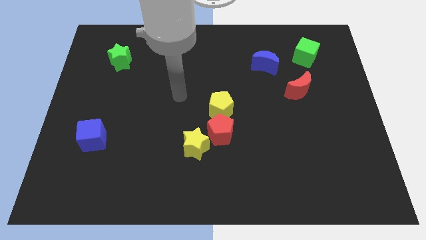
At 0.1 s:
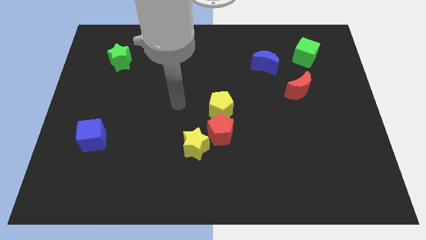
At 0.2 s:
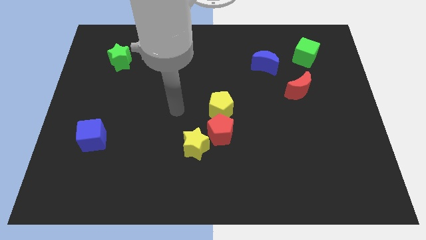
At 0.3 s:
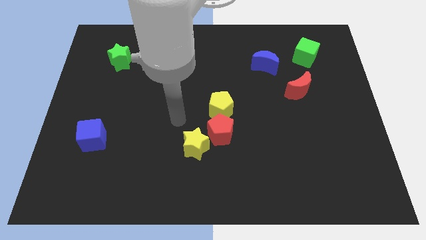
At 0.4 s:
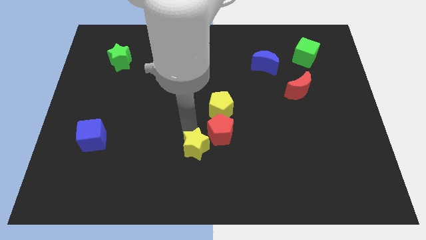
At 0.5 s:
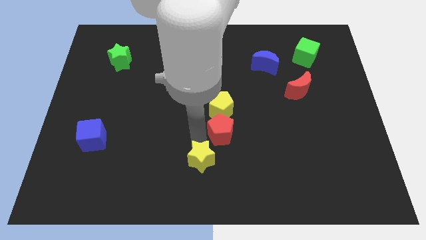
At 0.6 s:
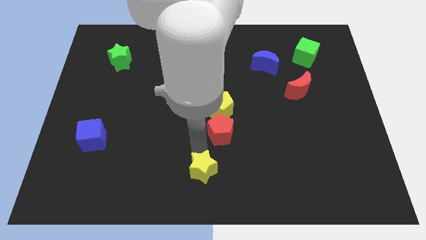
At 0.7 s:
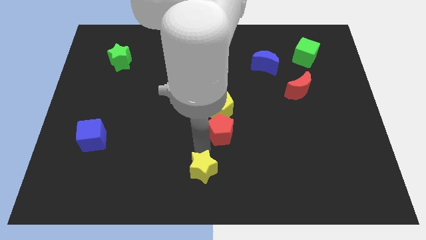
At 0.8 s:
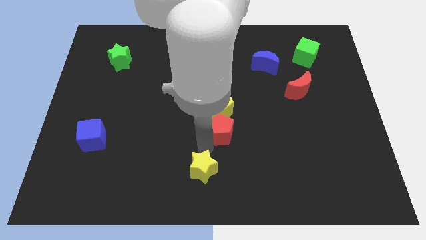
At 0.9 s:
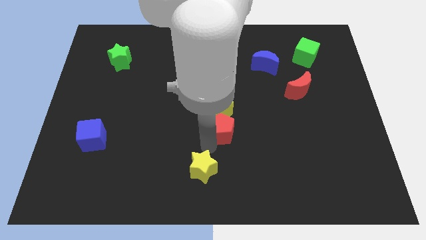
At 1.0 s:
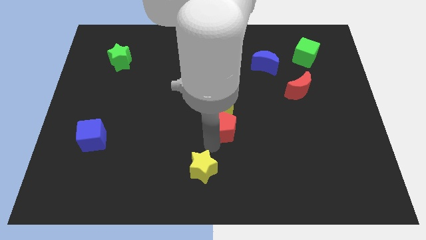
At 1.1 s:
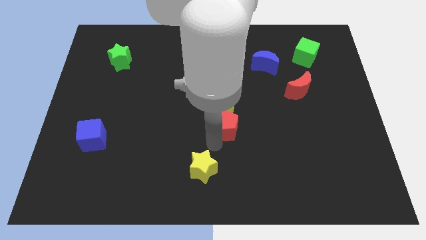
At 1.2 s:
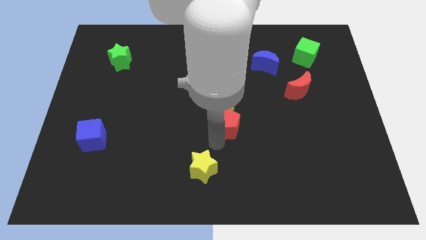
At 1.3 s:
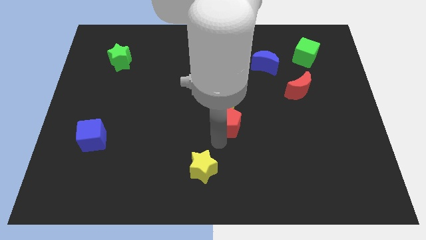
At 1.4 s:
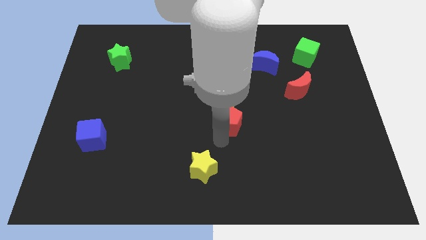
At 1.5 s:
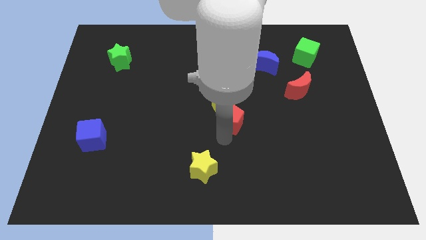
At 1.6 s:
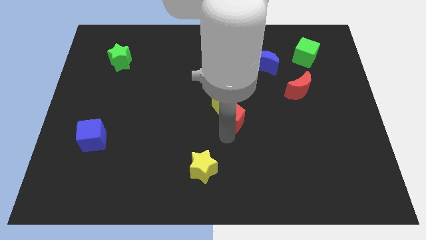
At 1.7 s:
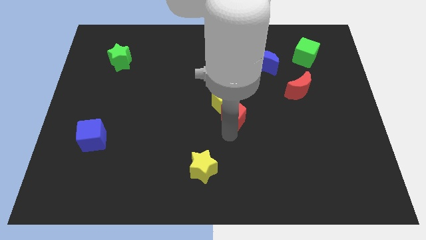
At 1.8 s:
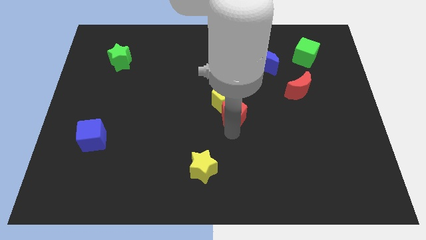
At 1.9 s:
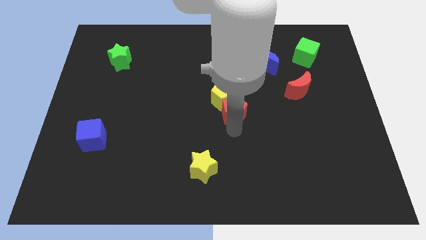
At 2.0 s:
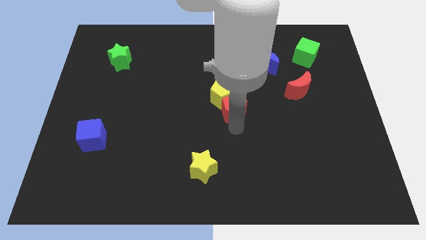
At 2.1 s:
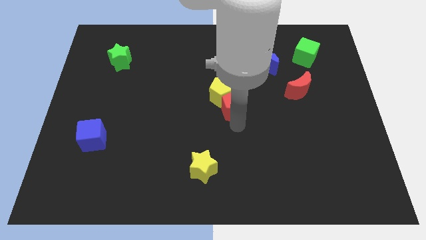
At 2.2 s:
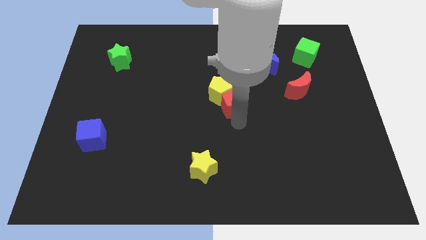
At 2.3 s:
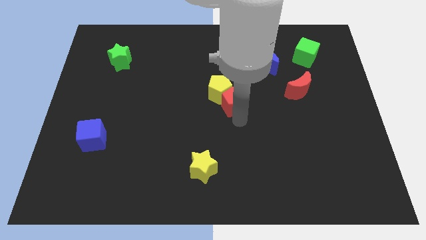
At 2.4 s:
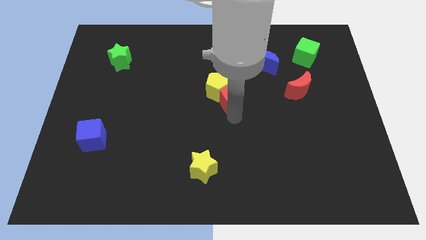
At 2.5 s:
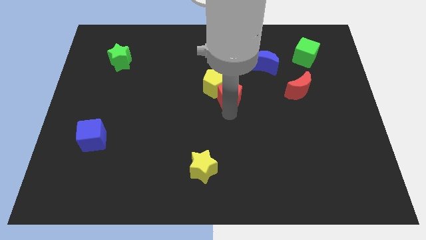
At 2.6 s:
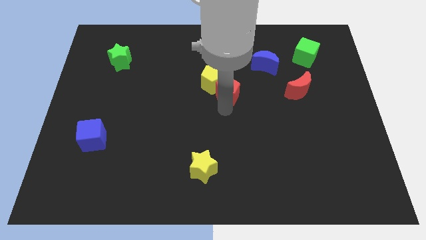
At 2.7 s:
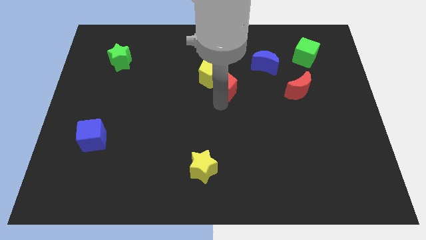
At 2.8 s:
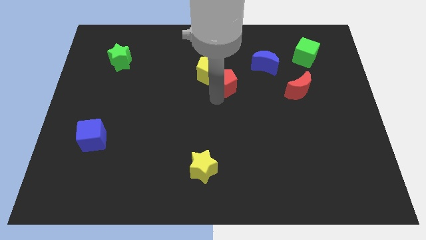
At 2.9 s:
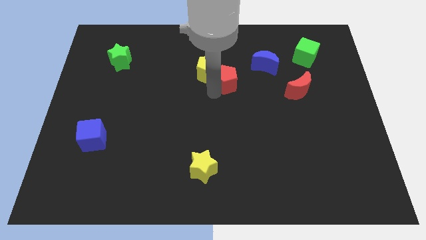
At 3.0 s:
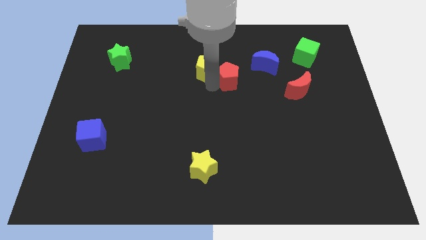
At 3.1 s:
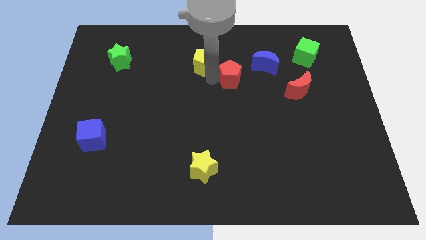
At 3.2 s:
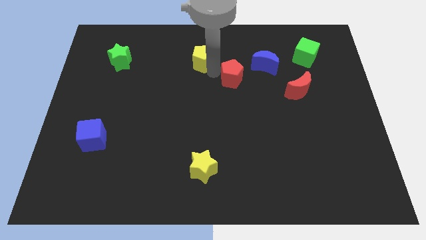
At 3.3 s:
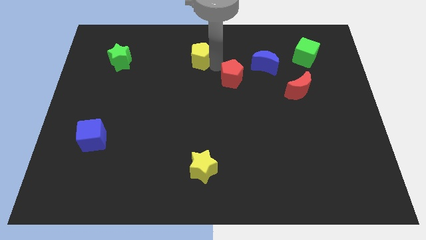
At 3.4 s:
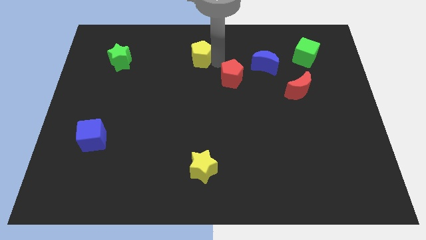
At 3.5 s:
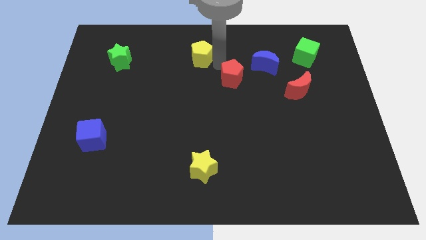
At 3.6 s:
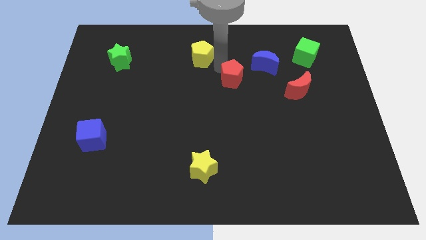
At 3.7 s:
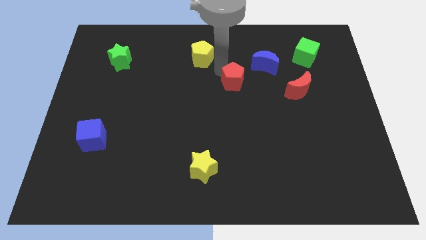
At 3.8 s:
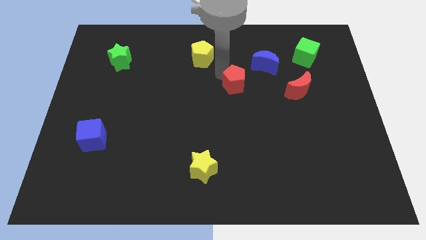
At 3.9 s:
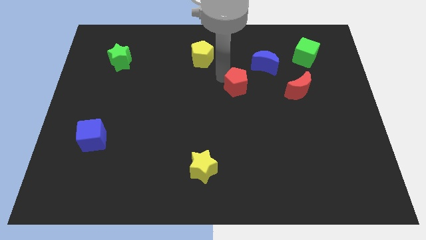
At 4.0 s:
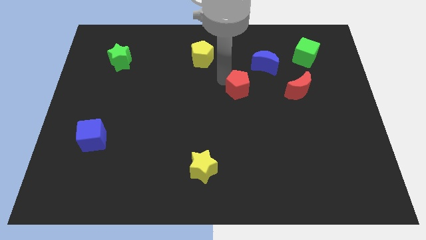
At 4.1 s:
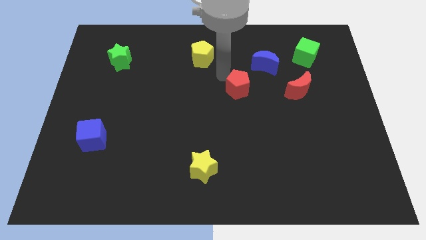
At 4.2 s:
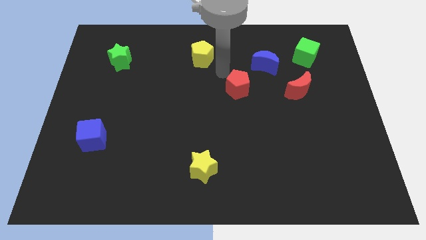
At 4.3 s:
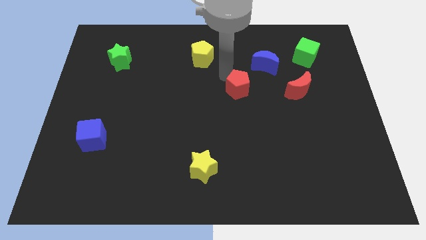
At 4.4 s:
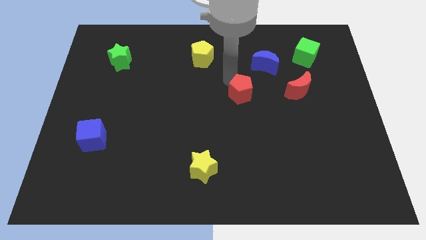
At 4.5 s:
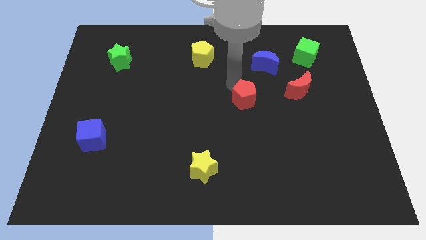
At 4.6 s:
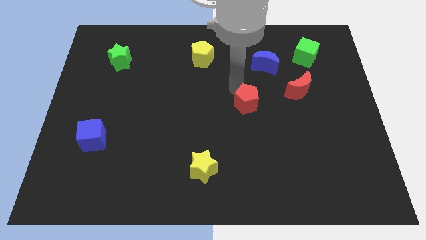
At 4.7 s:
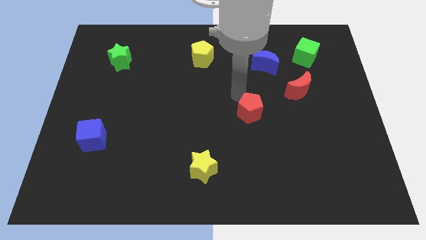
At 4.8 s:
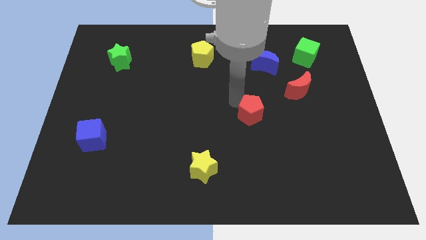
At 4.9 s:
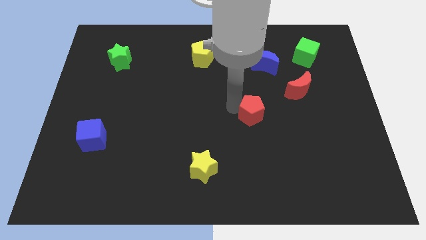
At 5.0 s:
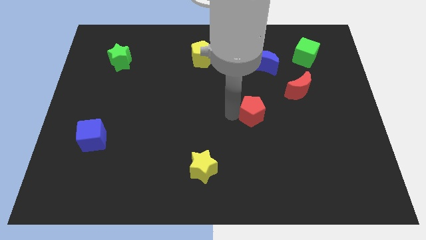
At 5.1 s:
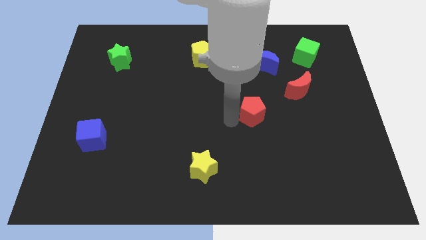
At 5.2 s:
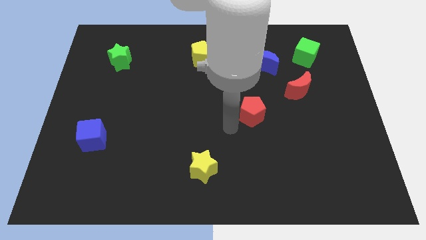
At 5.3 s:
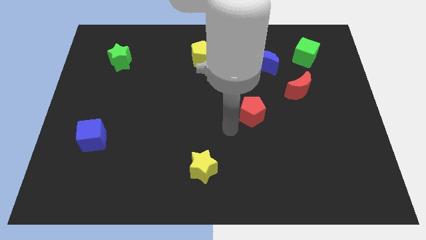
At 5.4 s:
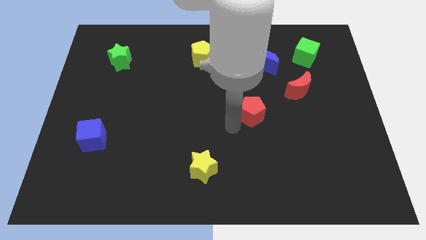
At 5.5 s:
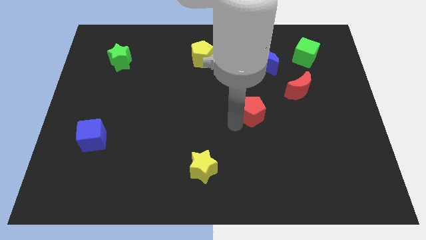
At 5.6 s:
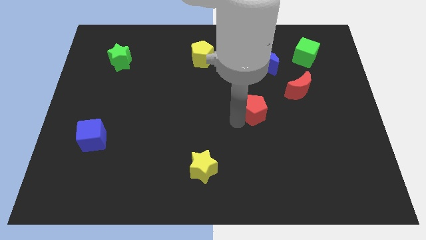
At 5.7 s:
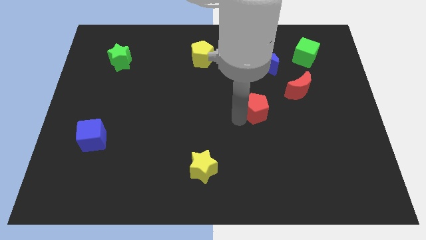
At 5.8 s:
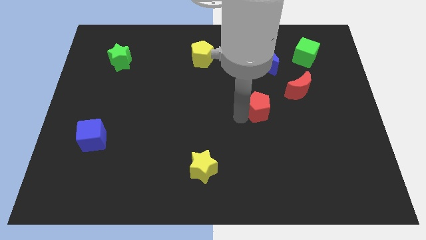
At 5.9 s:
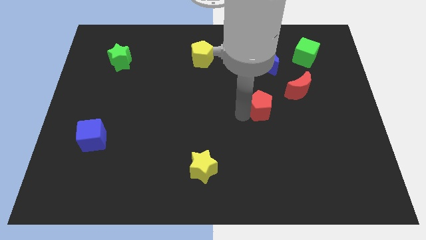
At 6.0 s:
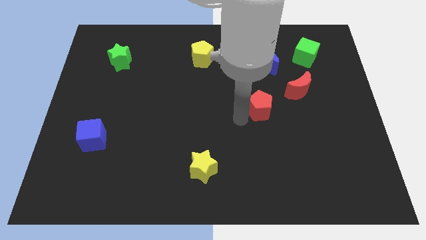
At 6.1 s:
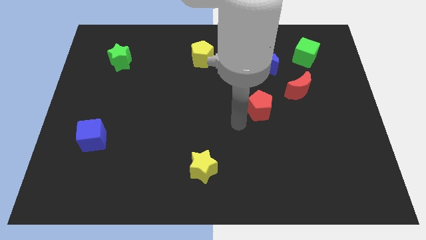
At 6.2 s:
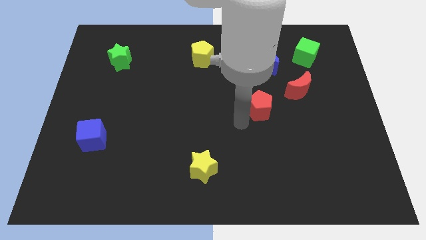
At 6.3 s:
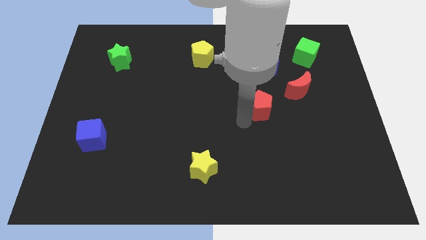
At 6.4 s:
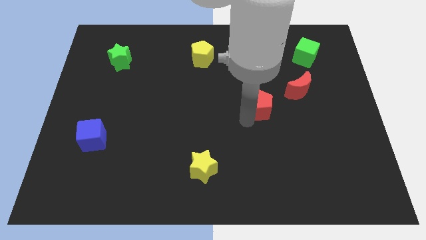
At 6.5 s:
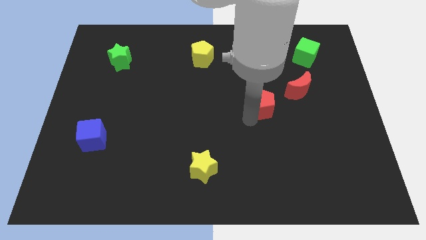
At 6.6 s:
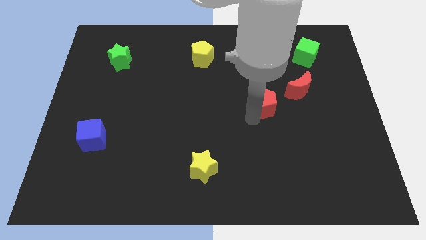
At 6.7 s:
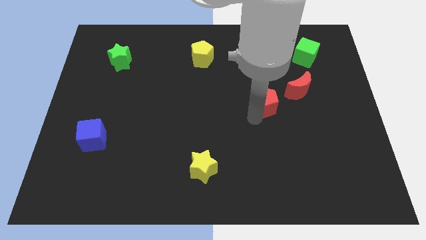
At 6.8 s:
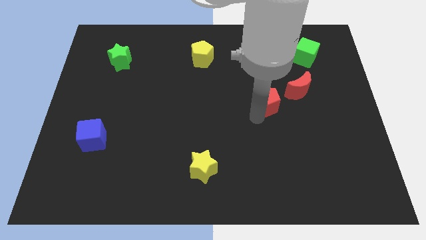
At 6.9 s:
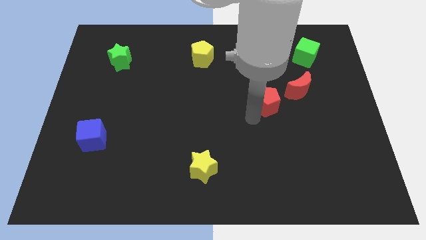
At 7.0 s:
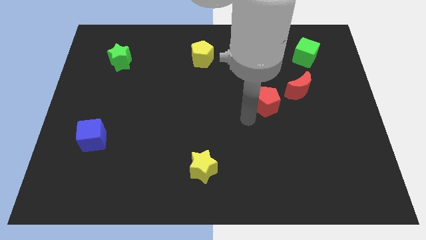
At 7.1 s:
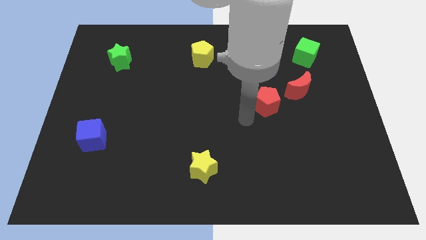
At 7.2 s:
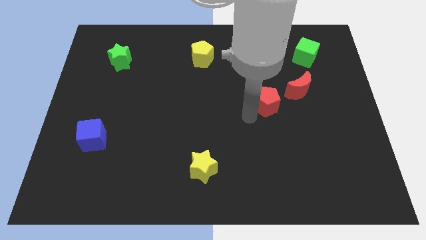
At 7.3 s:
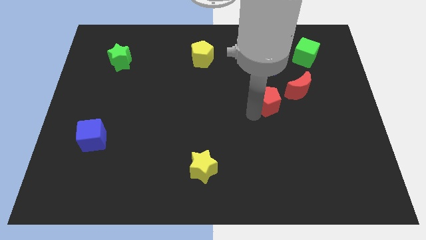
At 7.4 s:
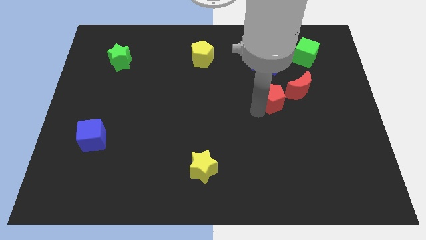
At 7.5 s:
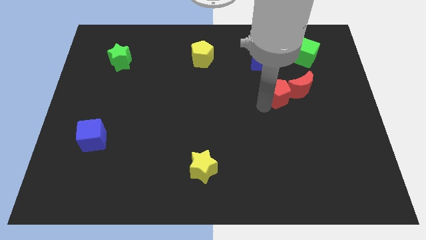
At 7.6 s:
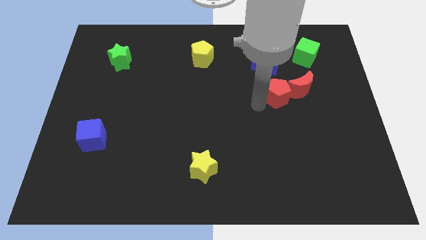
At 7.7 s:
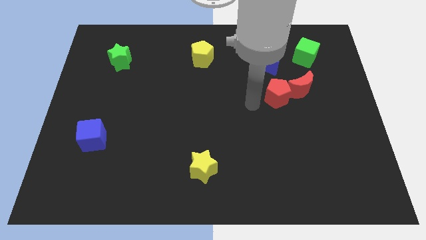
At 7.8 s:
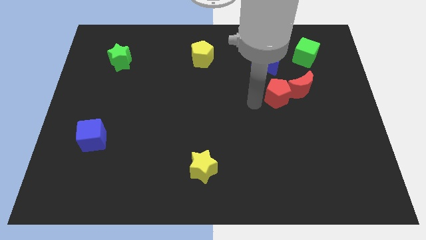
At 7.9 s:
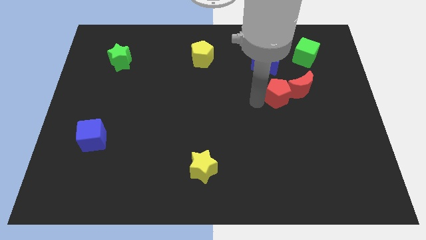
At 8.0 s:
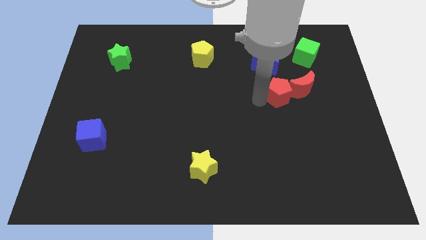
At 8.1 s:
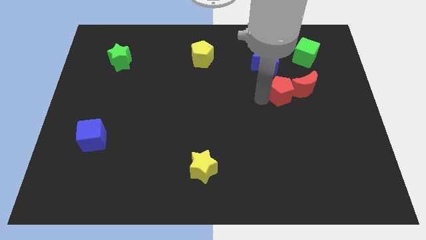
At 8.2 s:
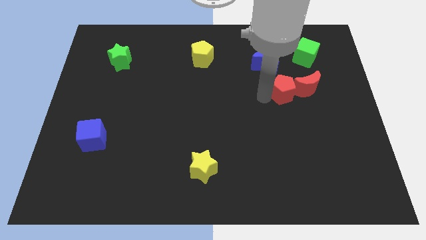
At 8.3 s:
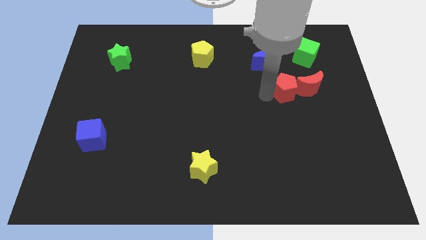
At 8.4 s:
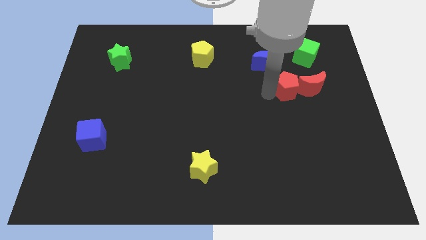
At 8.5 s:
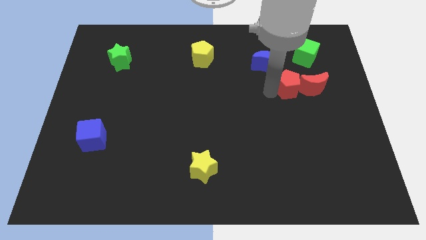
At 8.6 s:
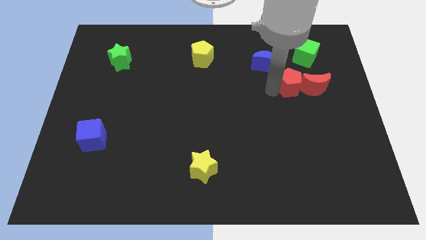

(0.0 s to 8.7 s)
put the red pentagon close to the red moon
